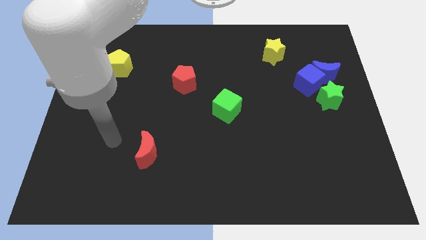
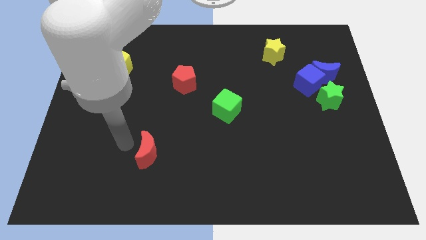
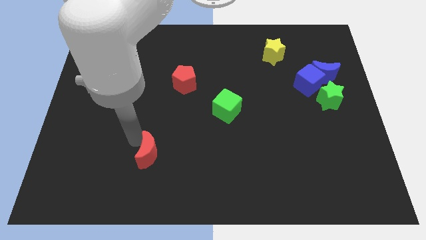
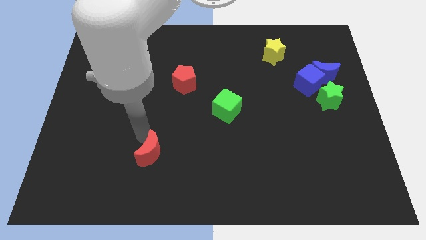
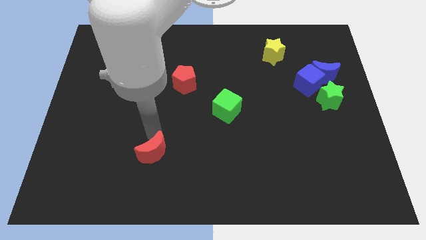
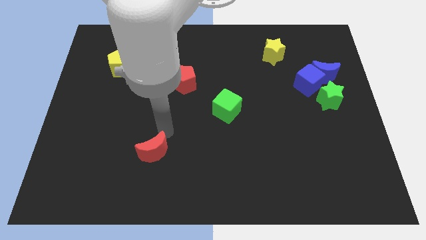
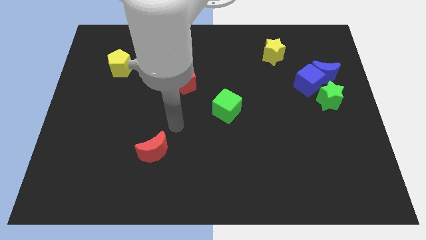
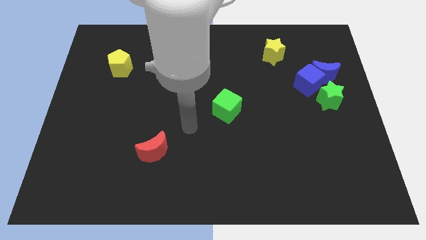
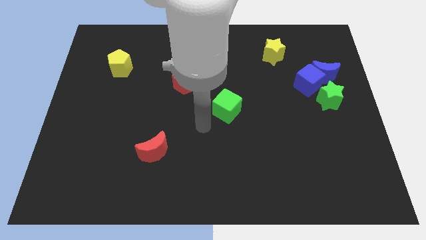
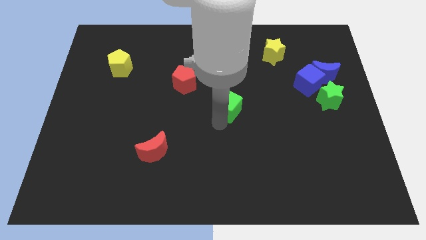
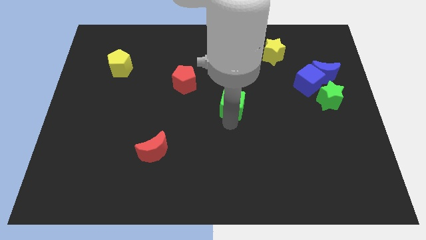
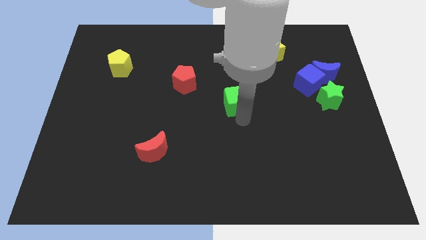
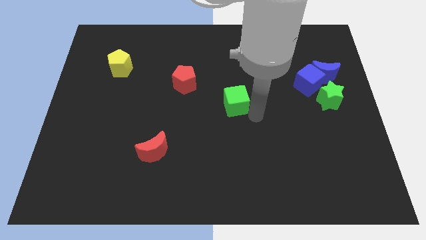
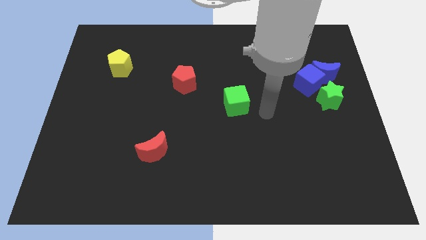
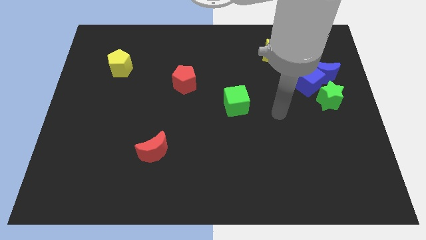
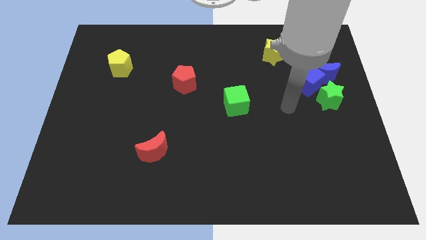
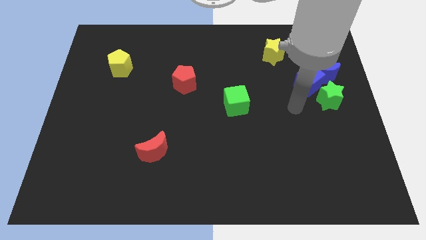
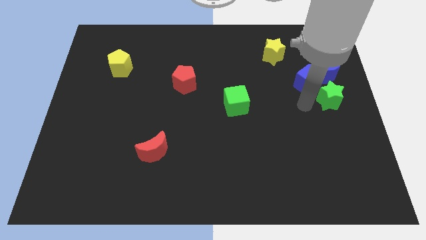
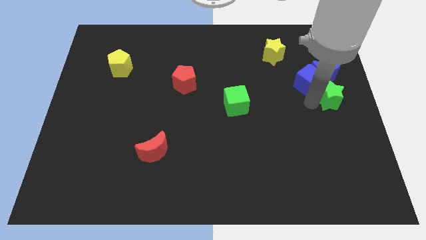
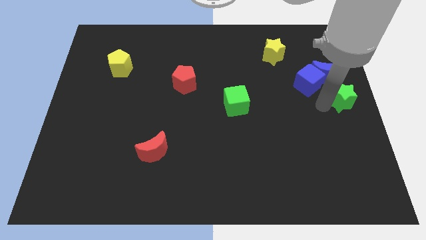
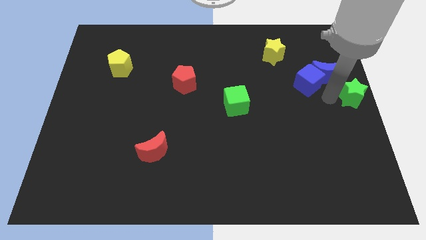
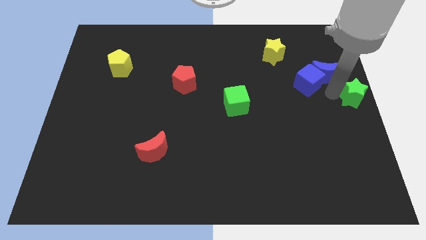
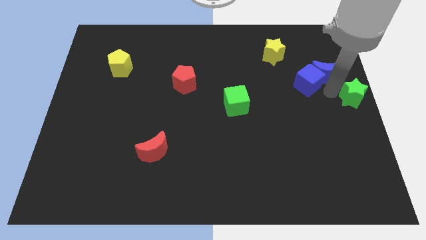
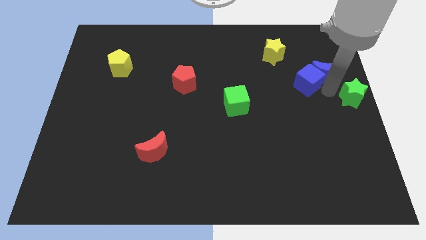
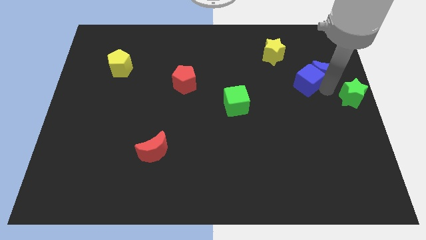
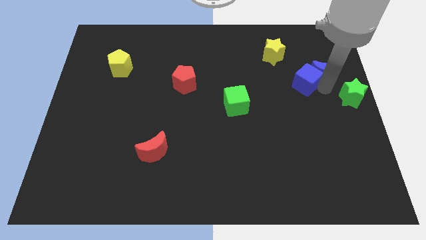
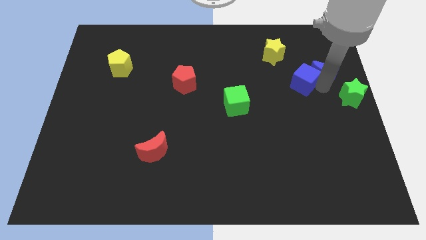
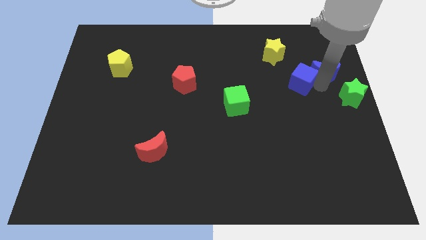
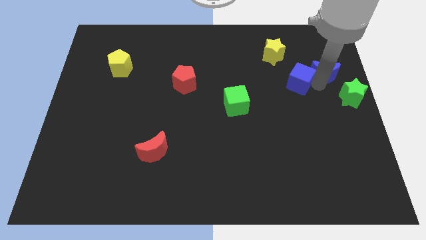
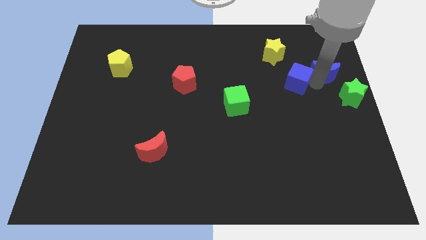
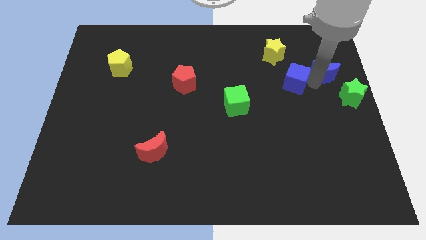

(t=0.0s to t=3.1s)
move the blue cube away from the blue moon and green star

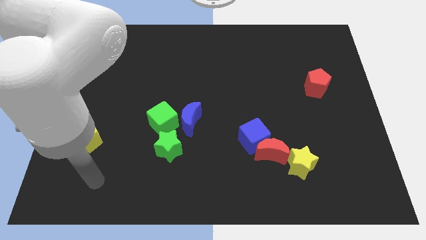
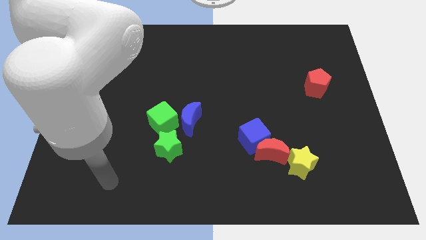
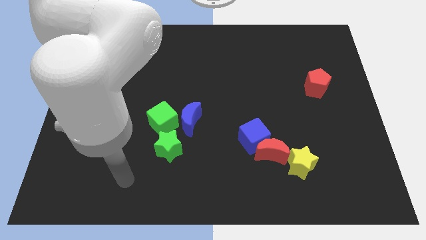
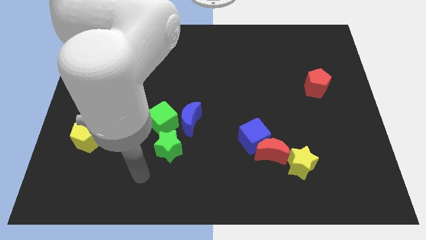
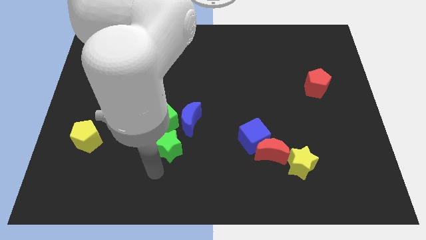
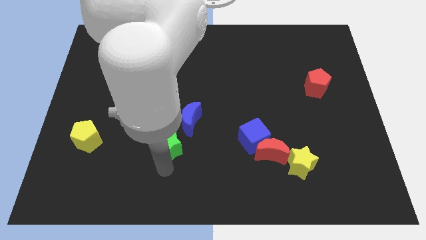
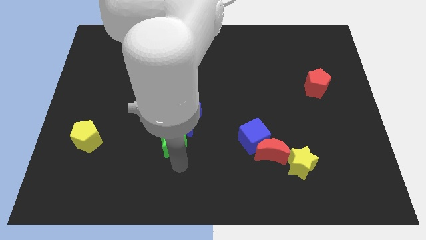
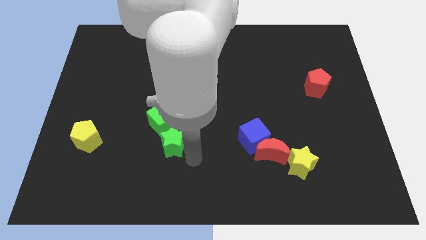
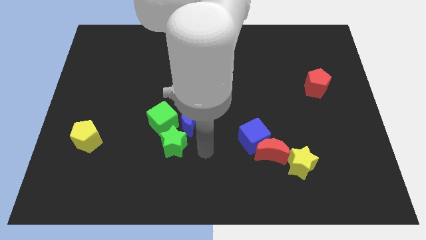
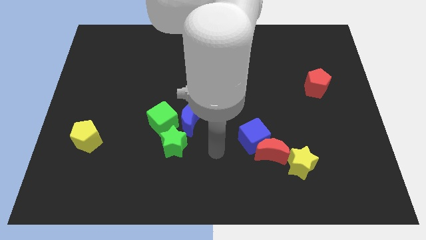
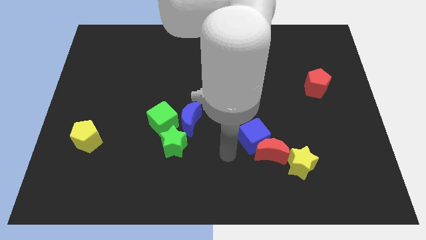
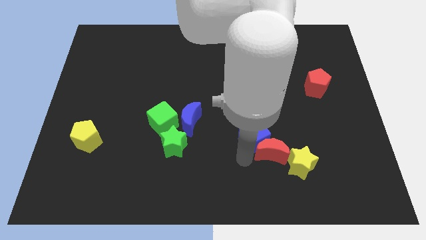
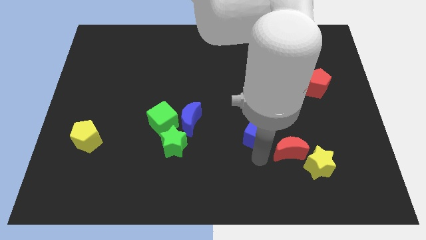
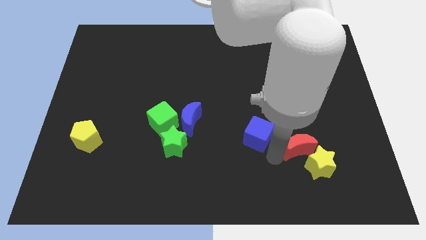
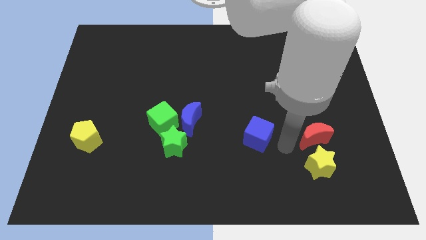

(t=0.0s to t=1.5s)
pull the blue cube apart from the red moon

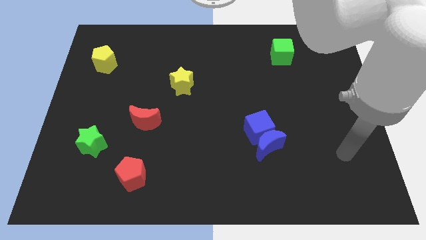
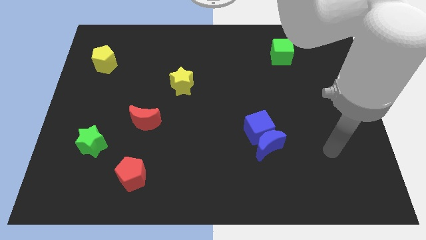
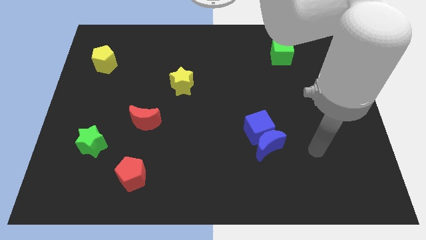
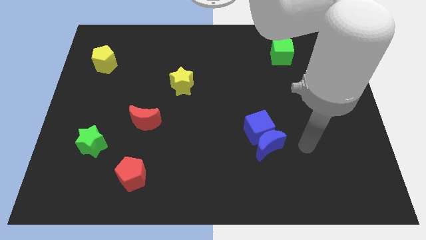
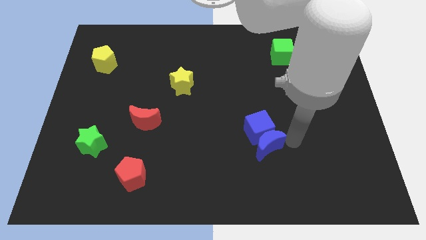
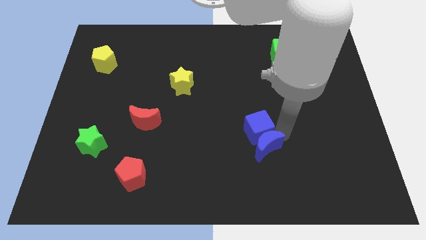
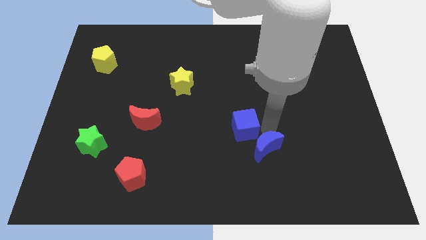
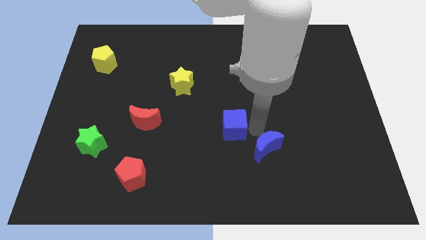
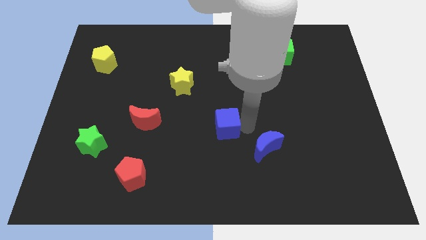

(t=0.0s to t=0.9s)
pull the blue moon apart from the blue cube

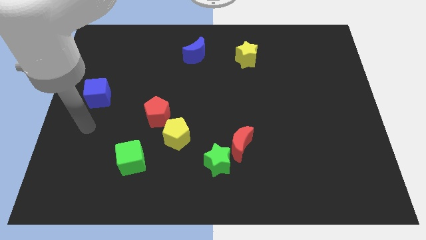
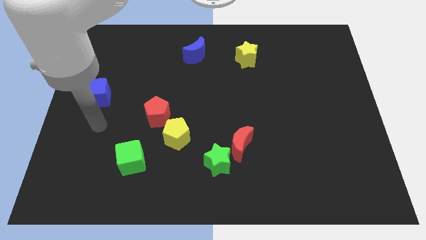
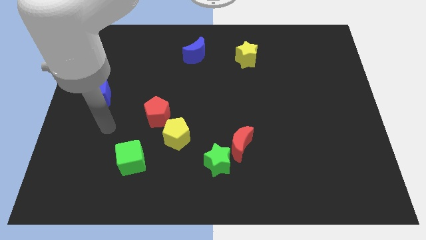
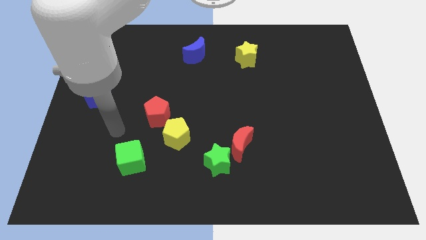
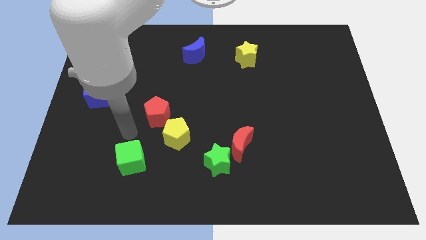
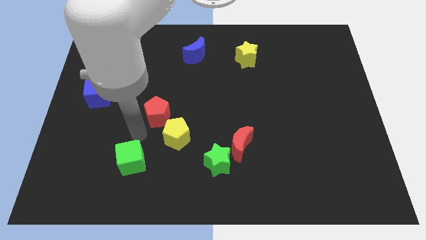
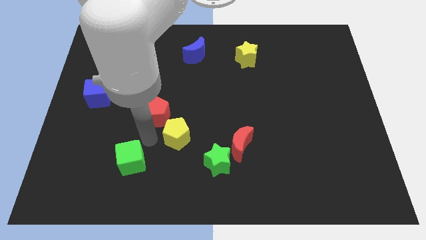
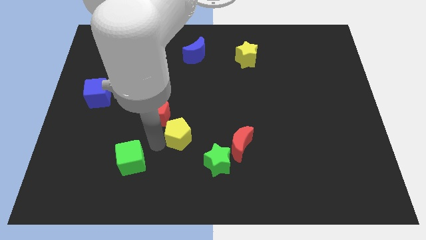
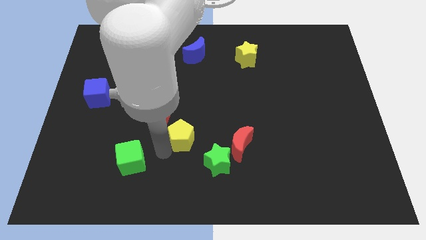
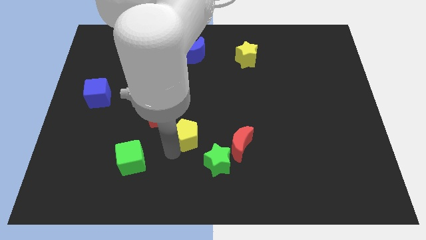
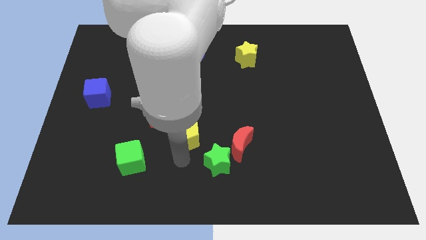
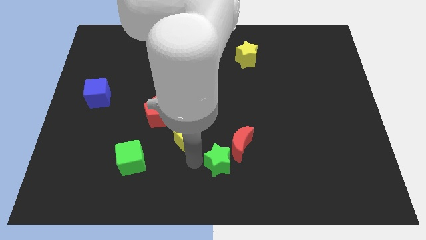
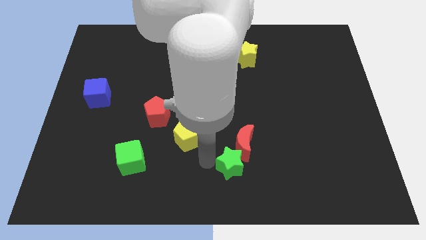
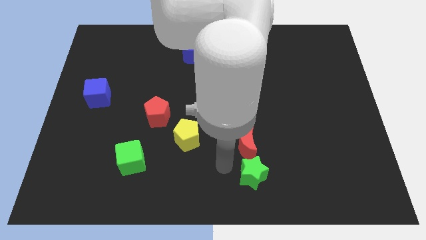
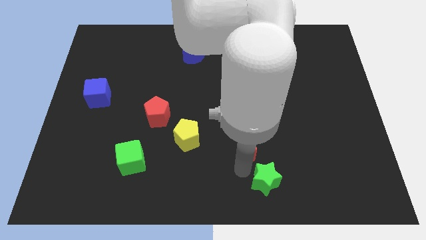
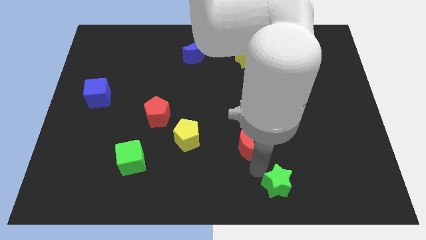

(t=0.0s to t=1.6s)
separate the red moon from the green star

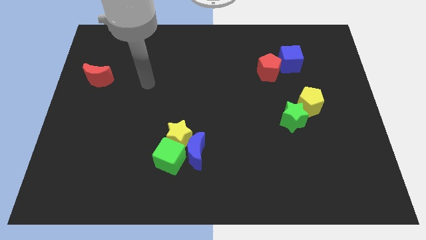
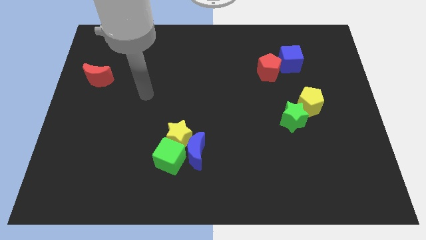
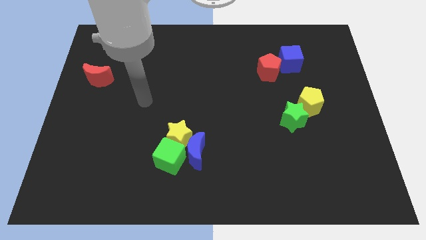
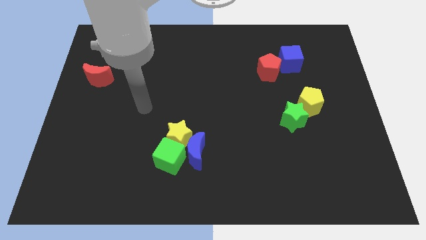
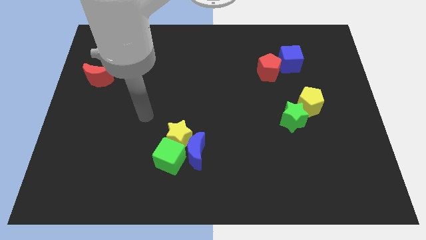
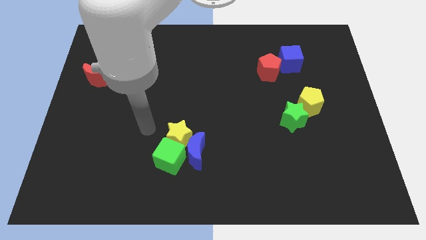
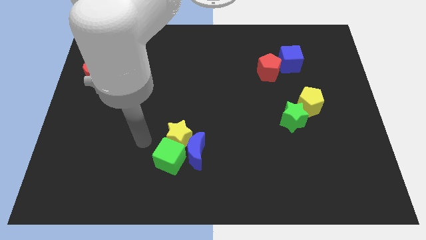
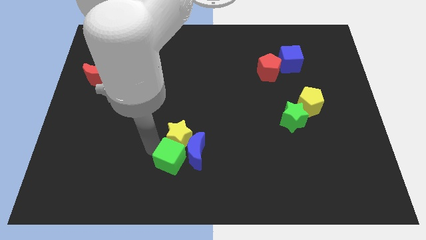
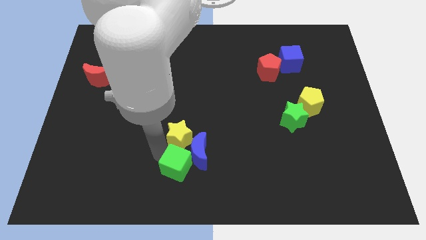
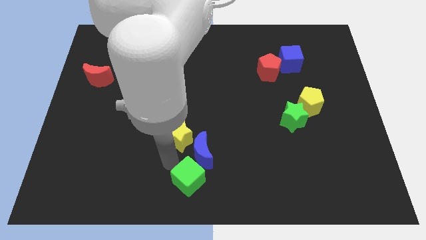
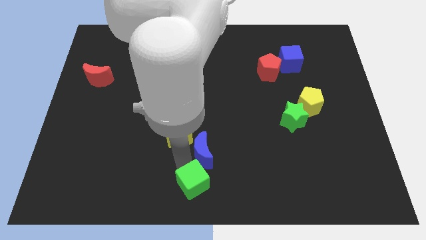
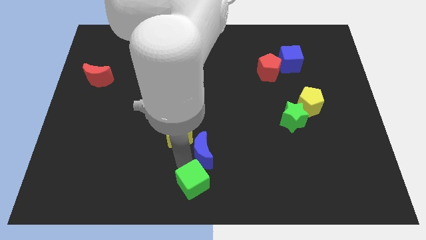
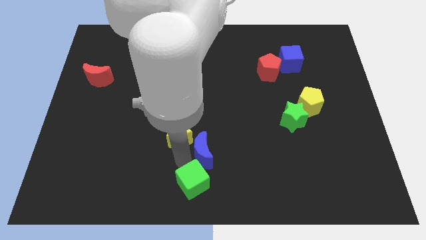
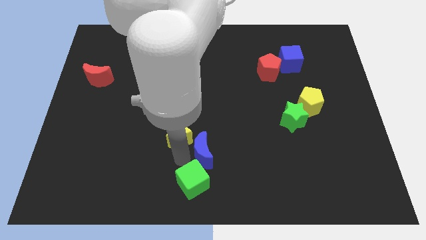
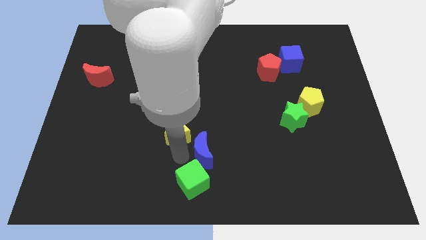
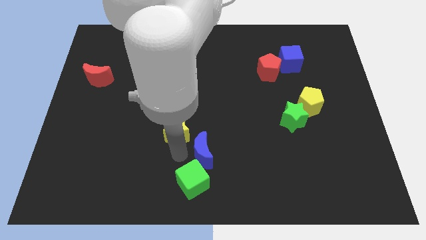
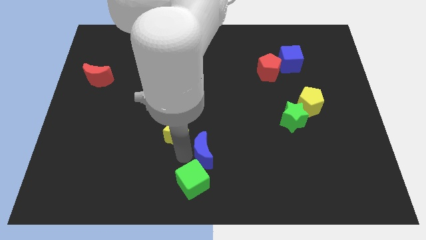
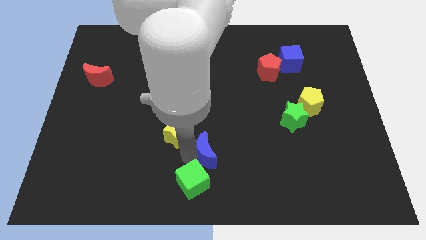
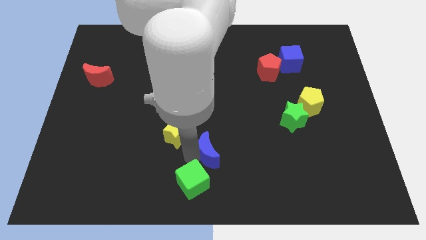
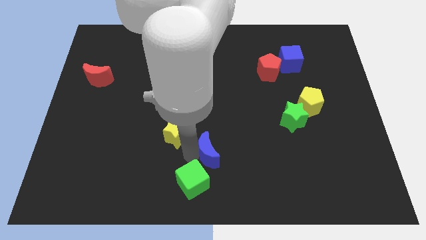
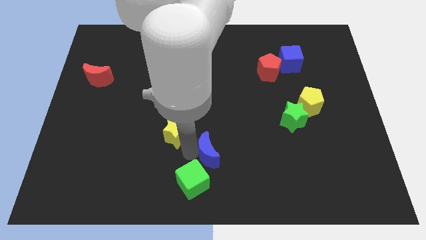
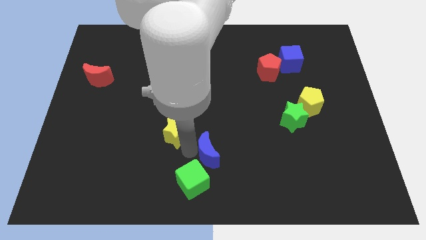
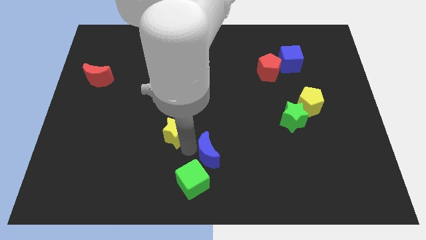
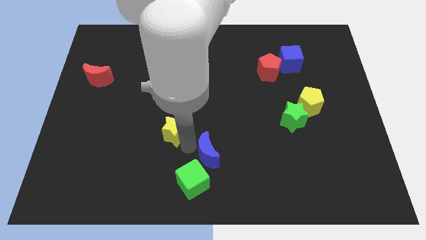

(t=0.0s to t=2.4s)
pull the yellow star apart from the green cube and blue moon
